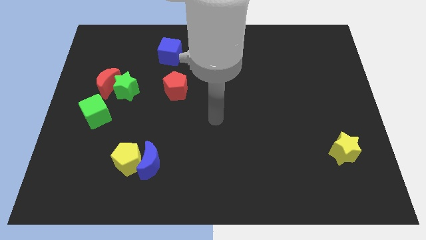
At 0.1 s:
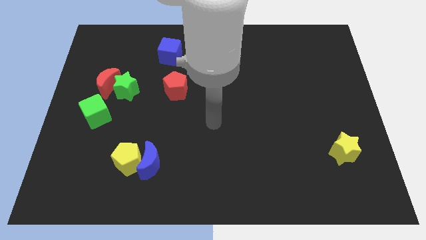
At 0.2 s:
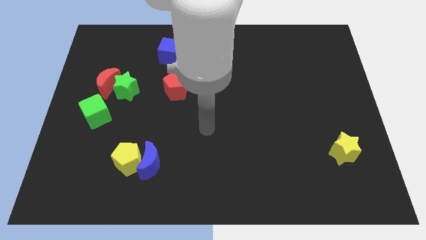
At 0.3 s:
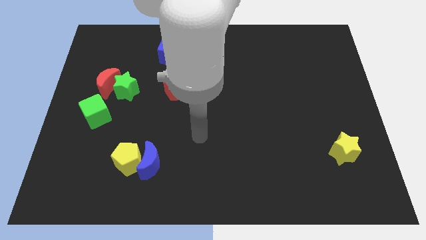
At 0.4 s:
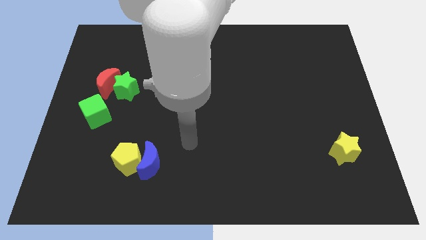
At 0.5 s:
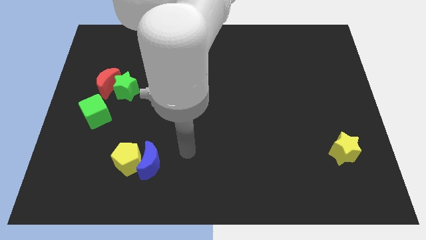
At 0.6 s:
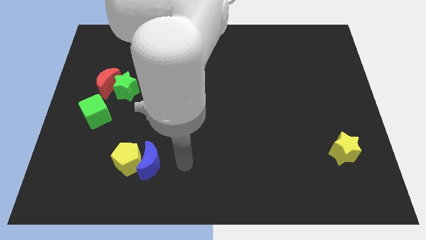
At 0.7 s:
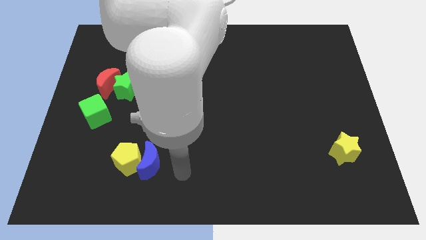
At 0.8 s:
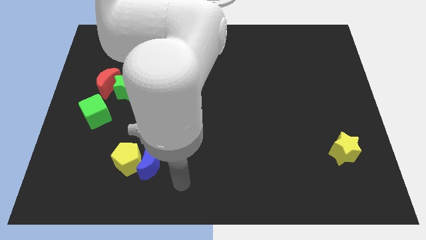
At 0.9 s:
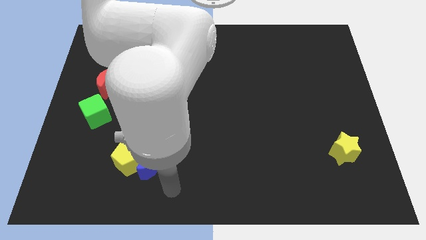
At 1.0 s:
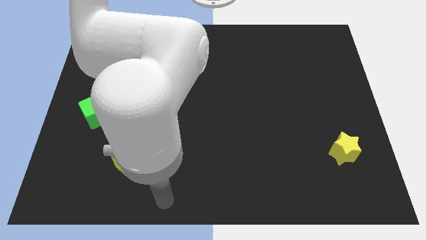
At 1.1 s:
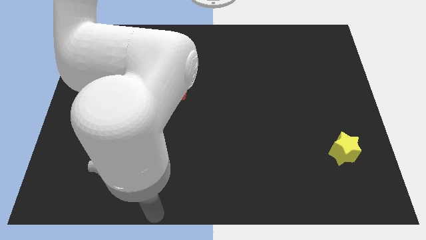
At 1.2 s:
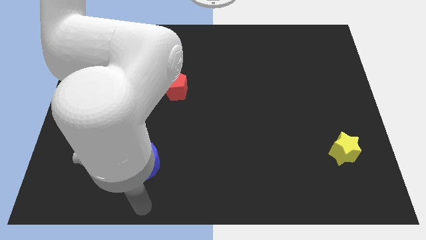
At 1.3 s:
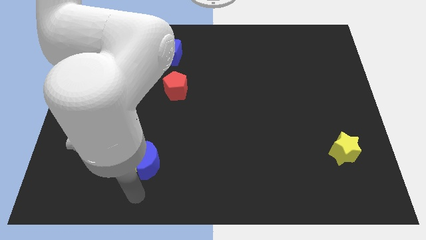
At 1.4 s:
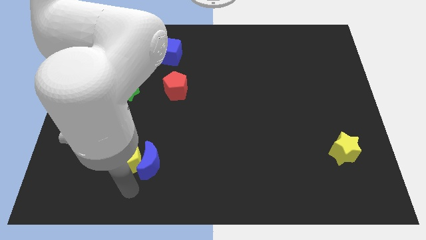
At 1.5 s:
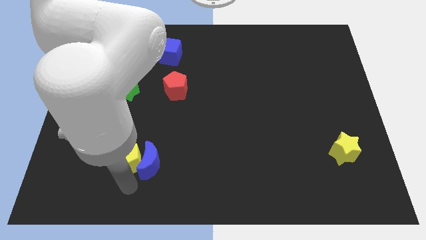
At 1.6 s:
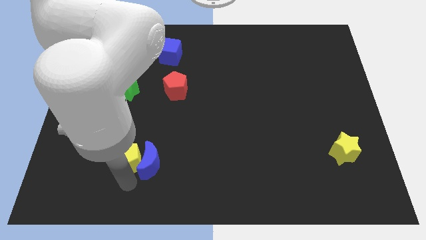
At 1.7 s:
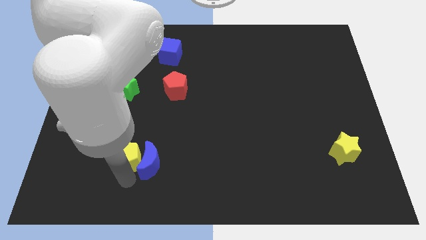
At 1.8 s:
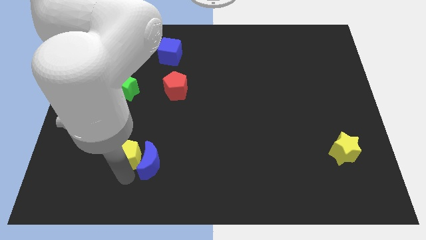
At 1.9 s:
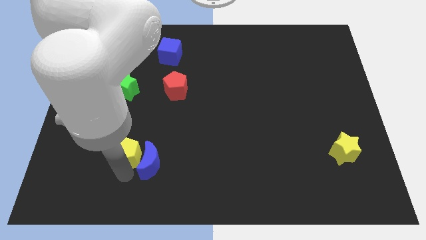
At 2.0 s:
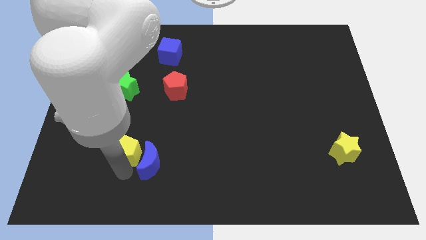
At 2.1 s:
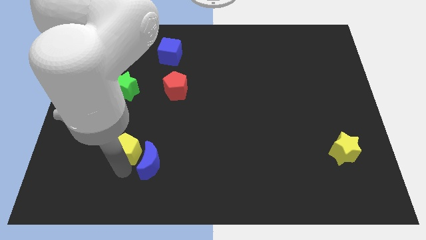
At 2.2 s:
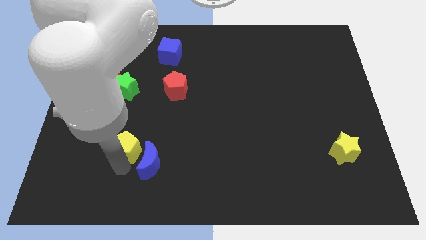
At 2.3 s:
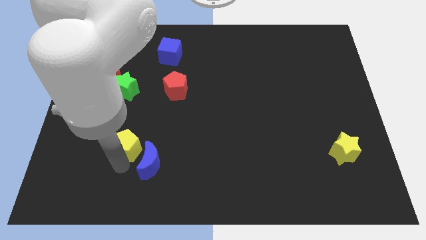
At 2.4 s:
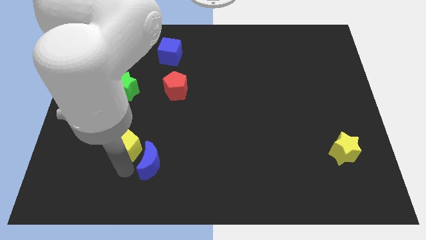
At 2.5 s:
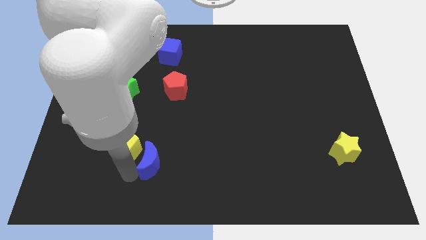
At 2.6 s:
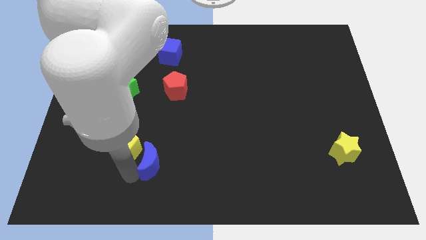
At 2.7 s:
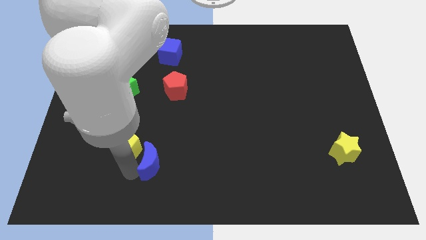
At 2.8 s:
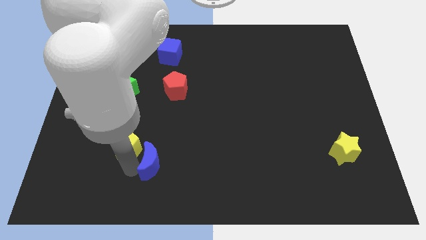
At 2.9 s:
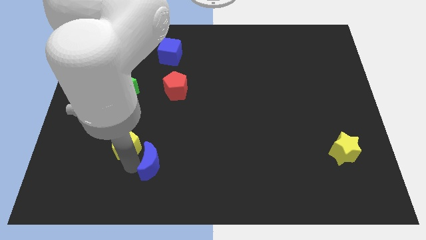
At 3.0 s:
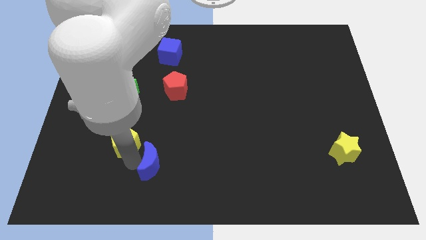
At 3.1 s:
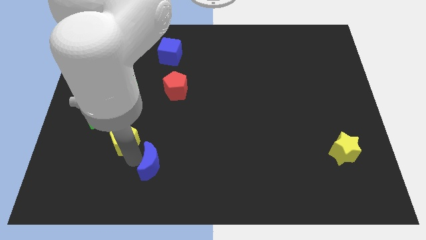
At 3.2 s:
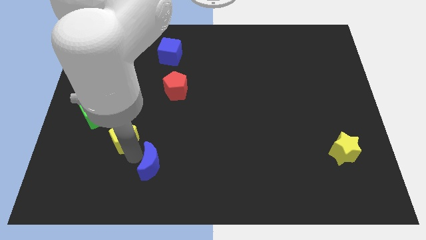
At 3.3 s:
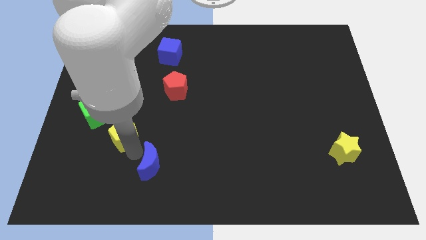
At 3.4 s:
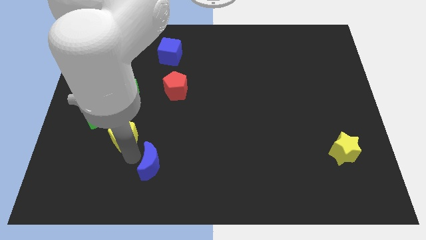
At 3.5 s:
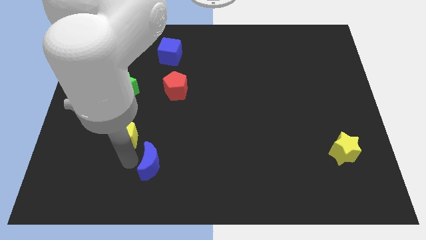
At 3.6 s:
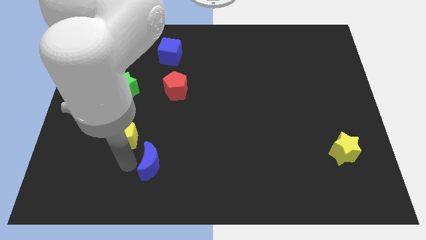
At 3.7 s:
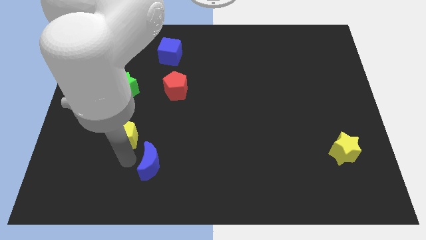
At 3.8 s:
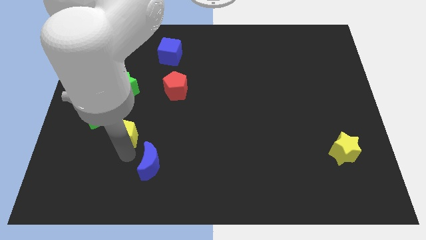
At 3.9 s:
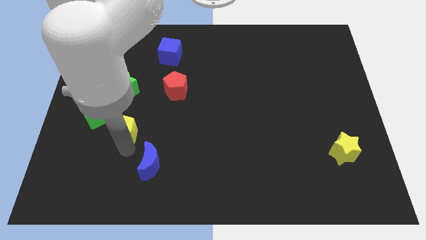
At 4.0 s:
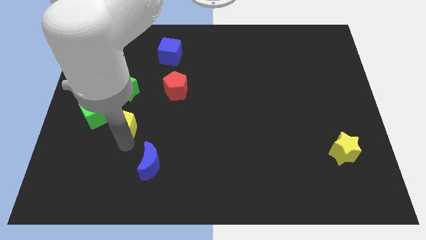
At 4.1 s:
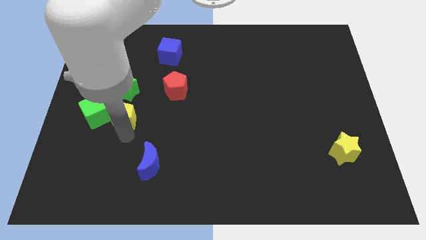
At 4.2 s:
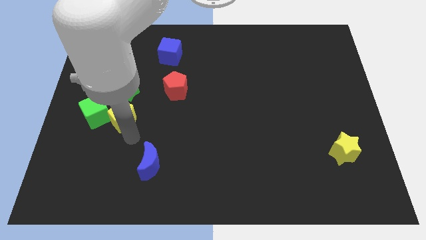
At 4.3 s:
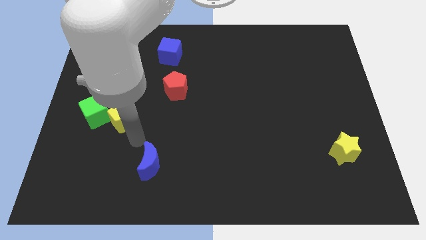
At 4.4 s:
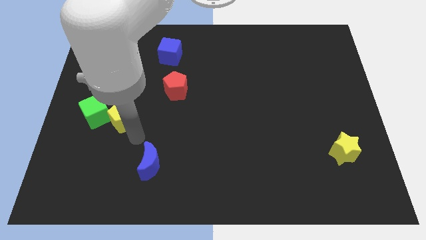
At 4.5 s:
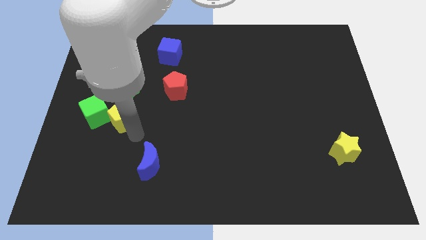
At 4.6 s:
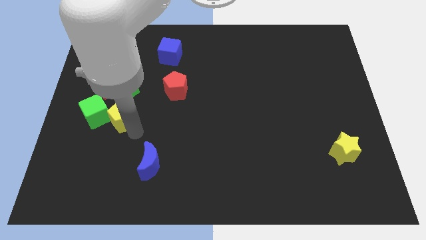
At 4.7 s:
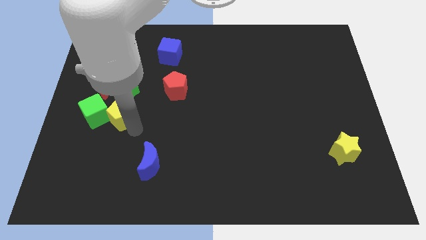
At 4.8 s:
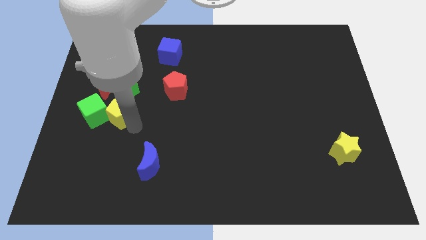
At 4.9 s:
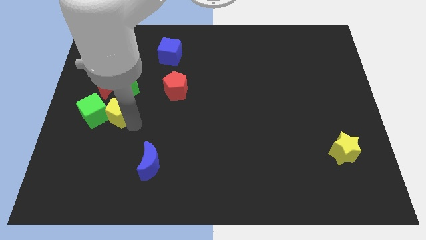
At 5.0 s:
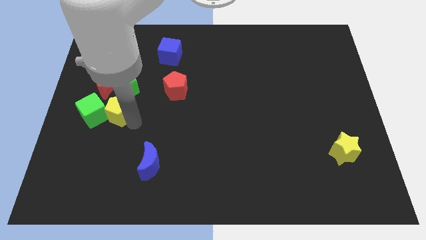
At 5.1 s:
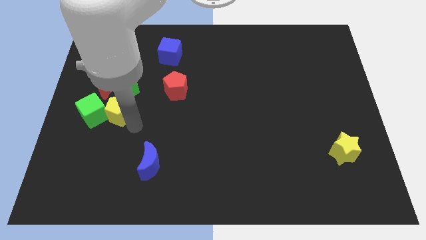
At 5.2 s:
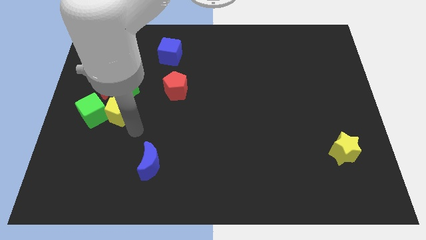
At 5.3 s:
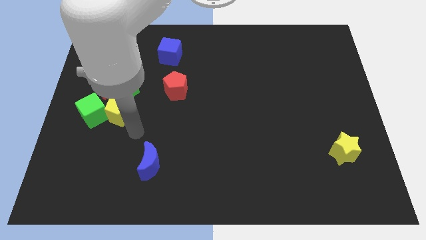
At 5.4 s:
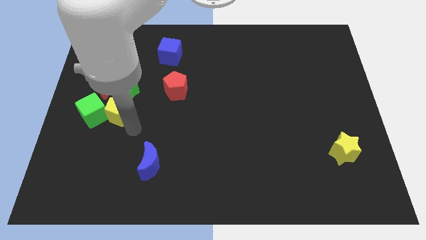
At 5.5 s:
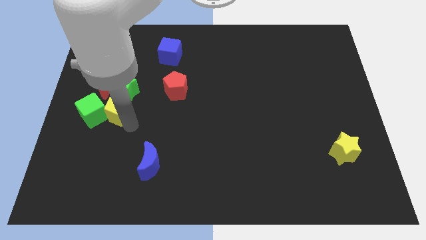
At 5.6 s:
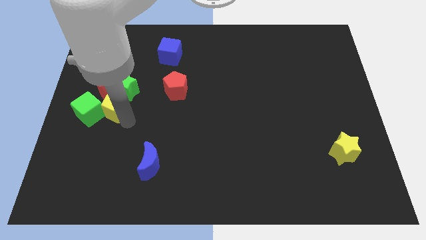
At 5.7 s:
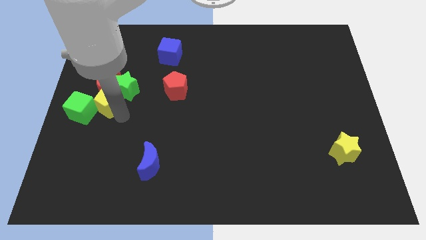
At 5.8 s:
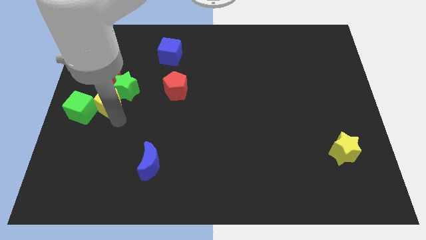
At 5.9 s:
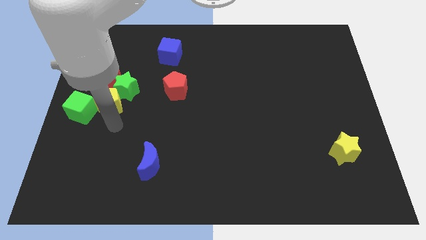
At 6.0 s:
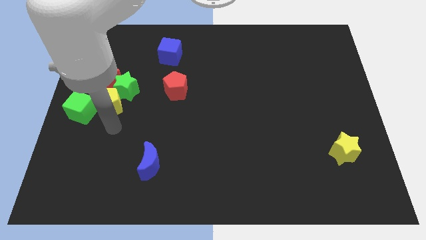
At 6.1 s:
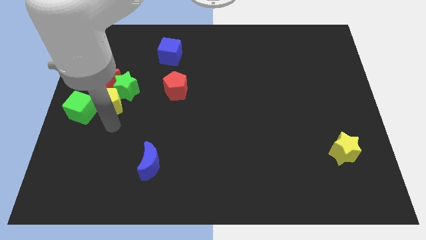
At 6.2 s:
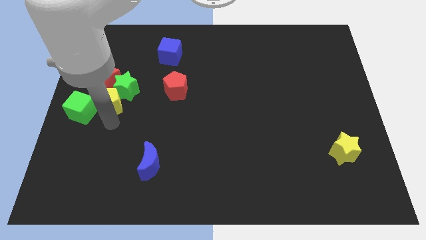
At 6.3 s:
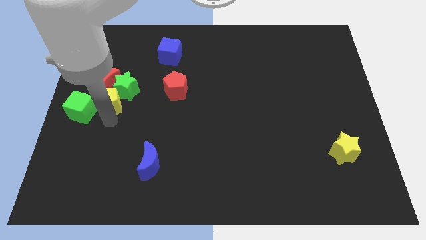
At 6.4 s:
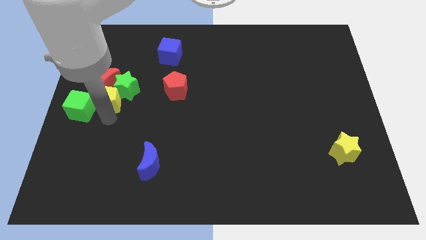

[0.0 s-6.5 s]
put the yellow pentagon towards the red moon

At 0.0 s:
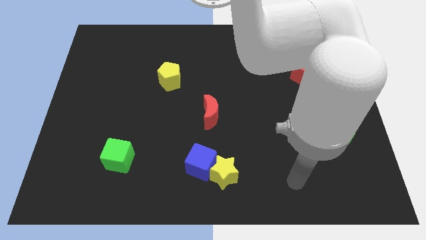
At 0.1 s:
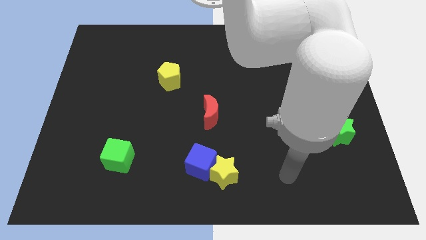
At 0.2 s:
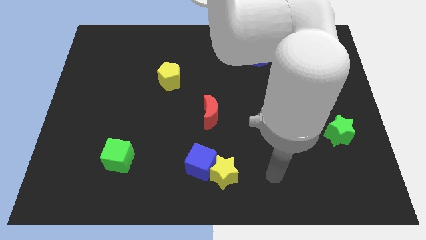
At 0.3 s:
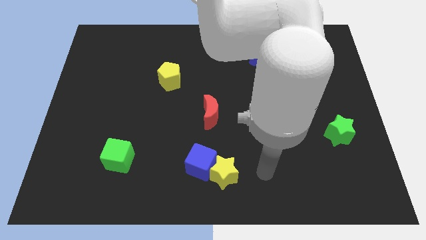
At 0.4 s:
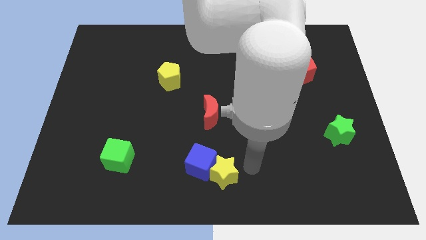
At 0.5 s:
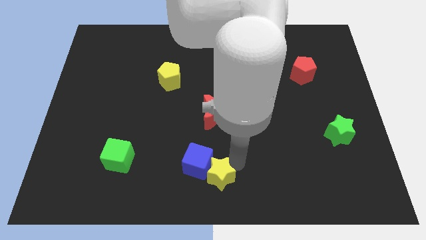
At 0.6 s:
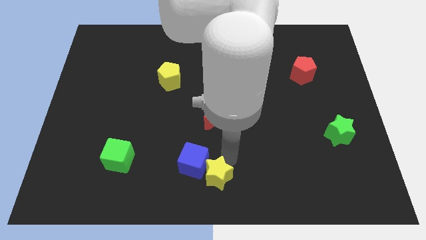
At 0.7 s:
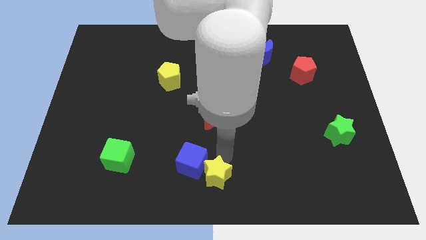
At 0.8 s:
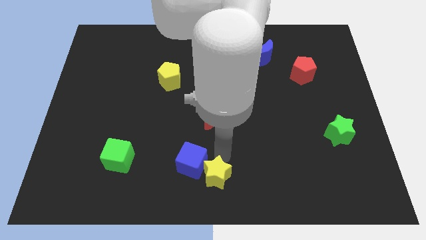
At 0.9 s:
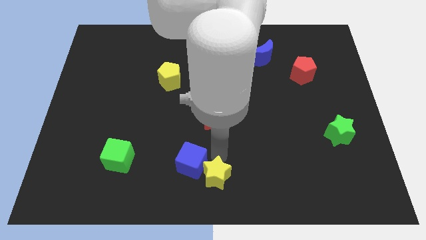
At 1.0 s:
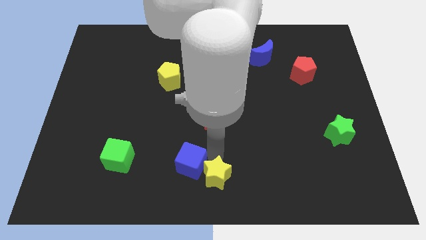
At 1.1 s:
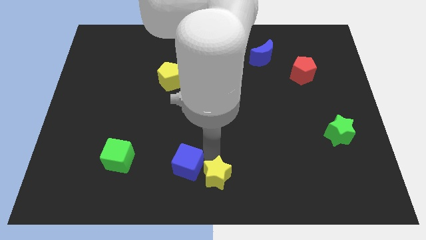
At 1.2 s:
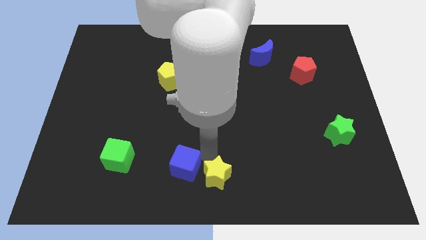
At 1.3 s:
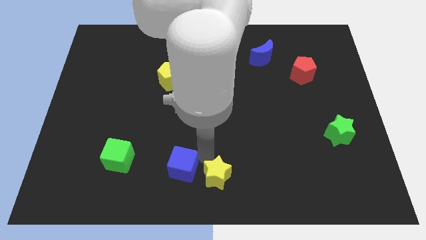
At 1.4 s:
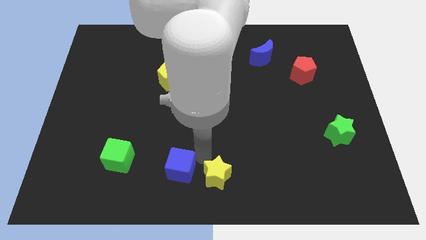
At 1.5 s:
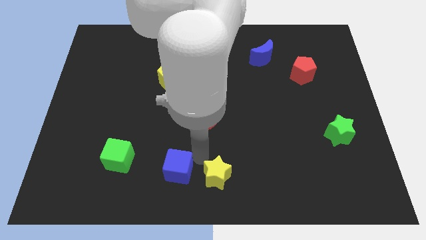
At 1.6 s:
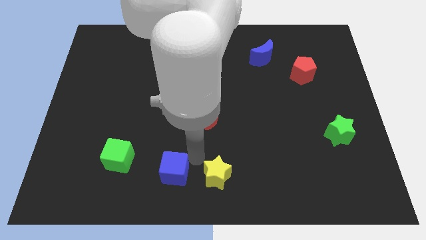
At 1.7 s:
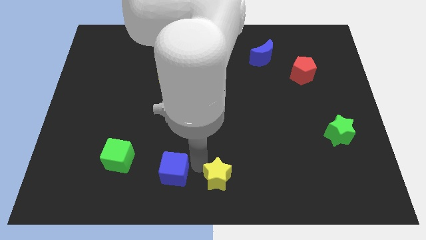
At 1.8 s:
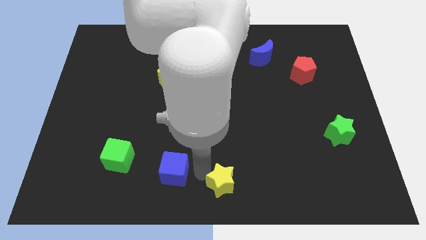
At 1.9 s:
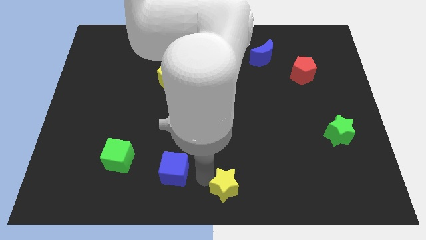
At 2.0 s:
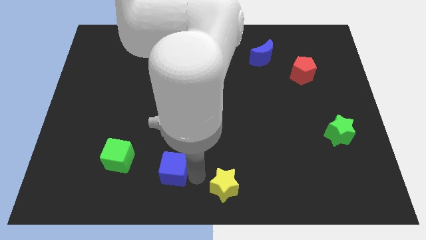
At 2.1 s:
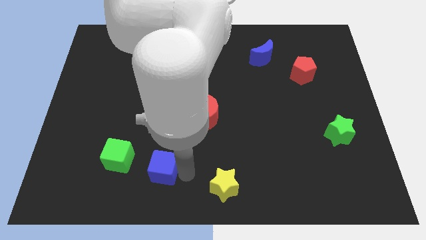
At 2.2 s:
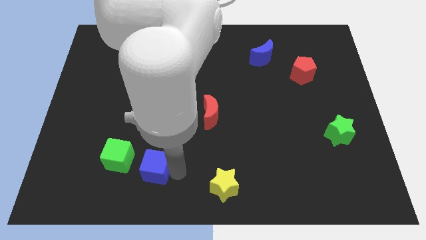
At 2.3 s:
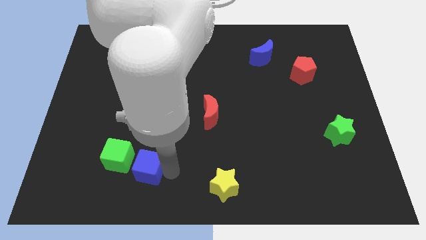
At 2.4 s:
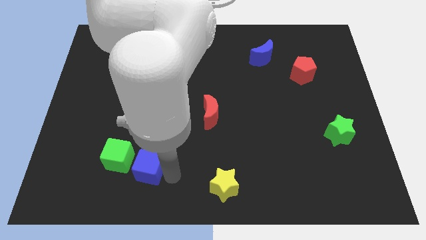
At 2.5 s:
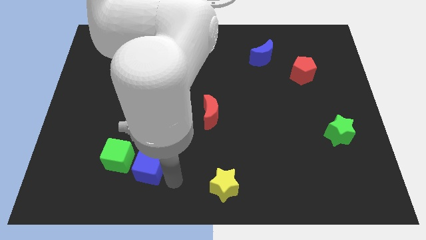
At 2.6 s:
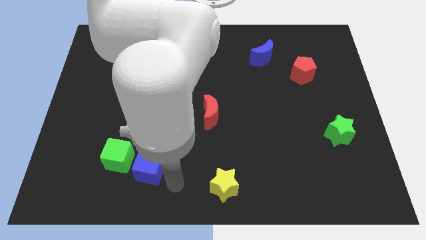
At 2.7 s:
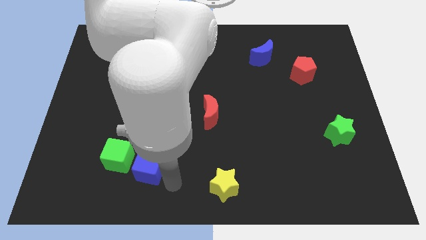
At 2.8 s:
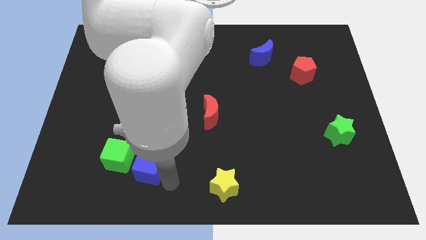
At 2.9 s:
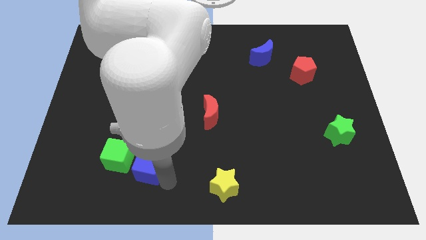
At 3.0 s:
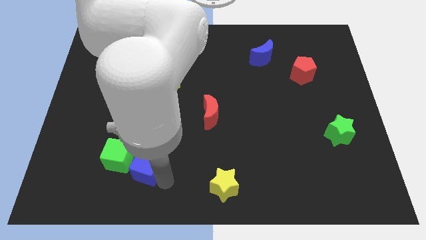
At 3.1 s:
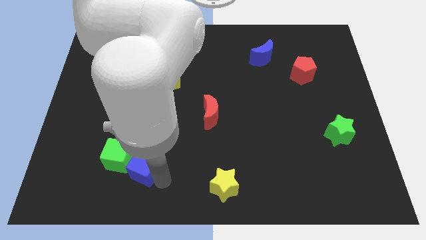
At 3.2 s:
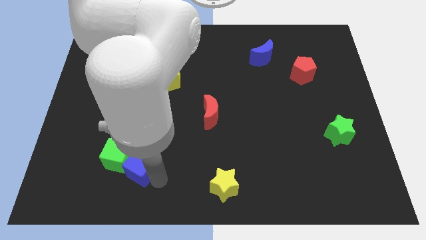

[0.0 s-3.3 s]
put the blue cube close to the green cube
